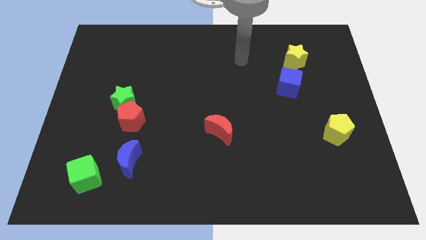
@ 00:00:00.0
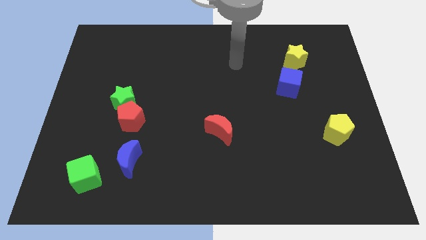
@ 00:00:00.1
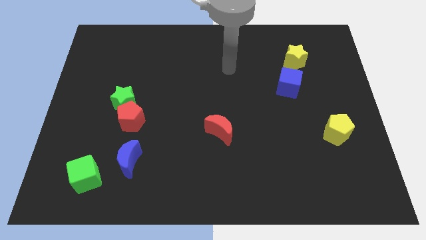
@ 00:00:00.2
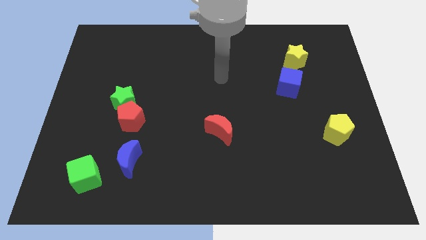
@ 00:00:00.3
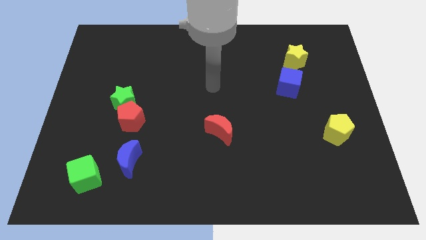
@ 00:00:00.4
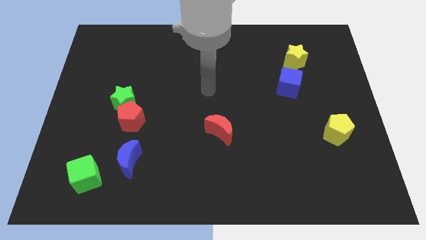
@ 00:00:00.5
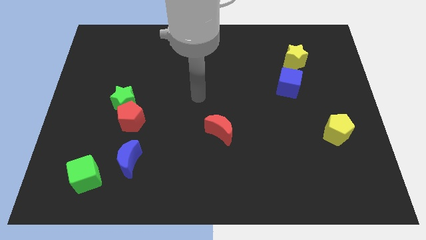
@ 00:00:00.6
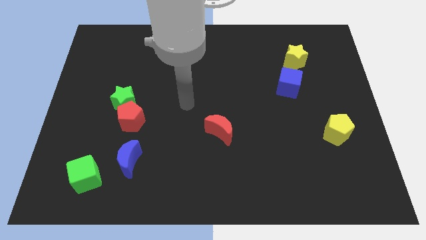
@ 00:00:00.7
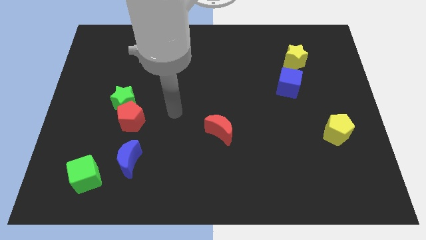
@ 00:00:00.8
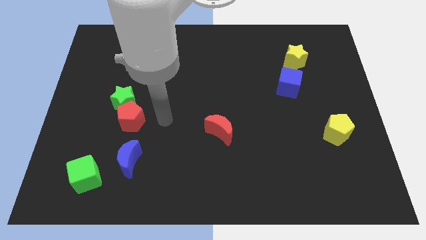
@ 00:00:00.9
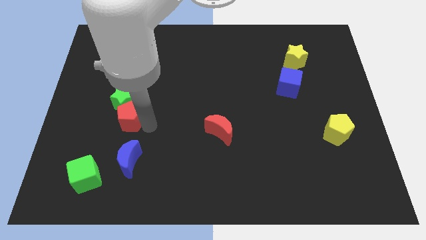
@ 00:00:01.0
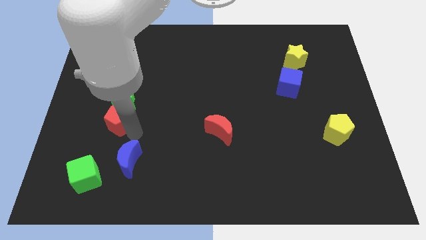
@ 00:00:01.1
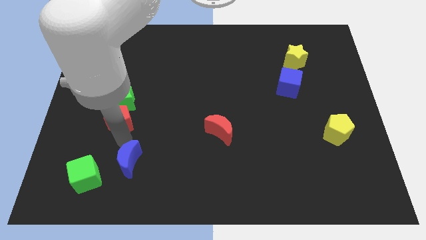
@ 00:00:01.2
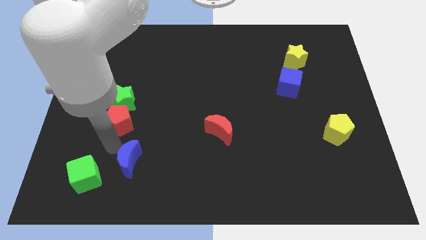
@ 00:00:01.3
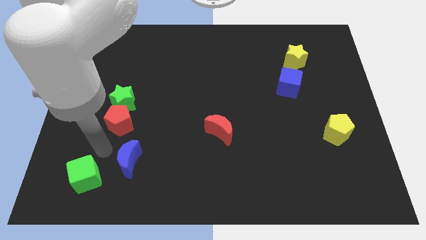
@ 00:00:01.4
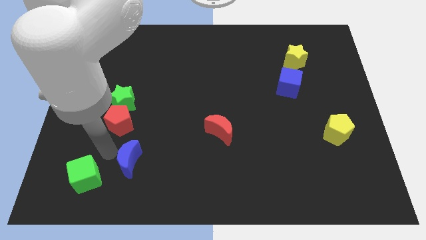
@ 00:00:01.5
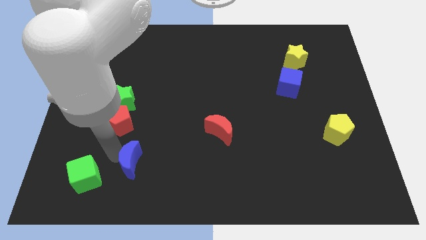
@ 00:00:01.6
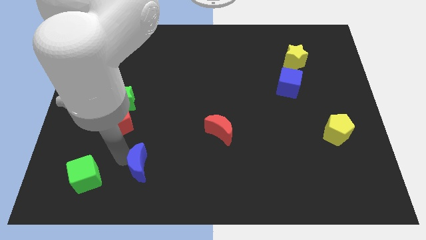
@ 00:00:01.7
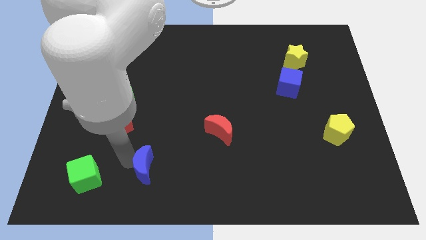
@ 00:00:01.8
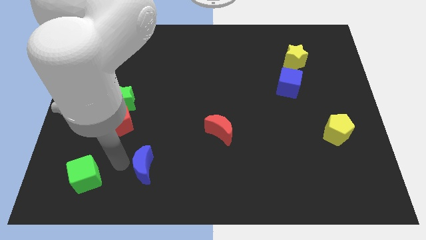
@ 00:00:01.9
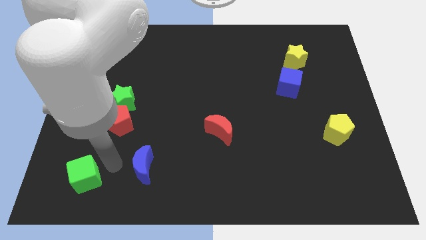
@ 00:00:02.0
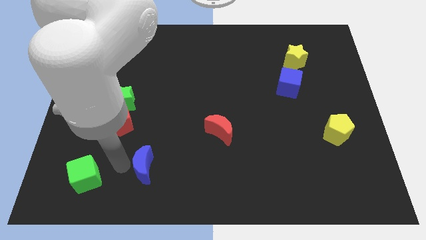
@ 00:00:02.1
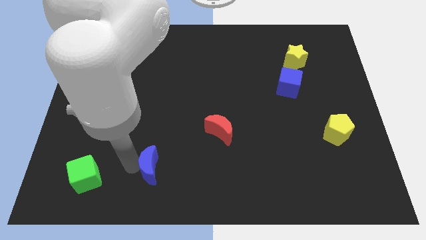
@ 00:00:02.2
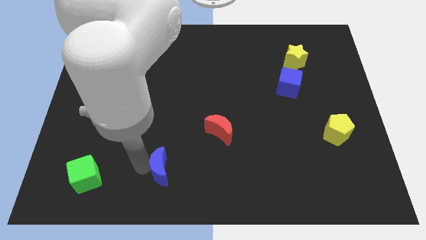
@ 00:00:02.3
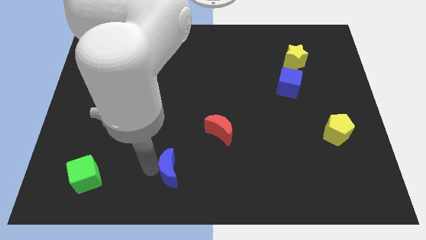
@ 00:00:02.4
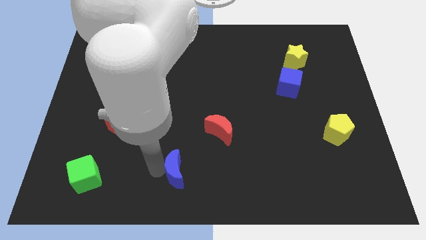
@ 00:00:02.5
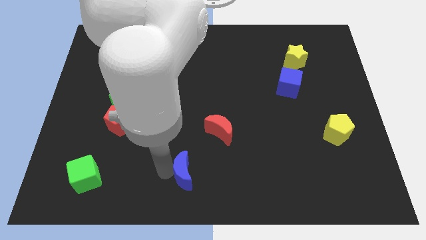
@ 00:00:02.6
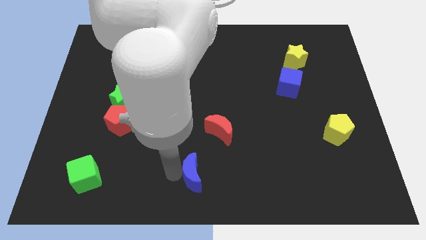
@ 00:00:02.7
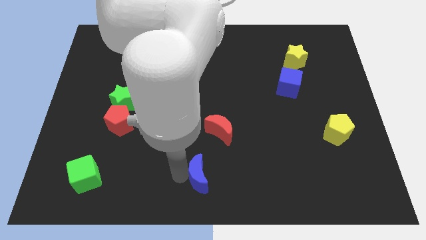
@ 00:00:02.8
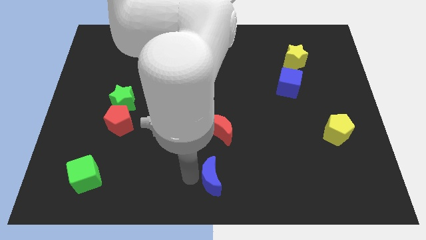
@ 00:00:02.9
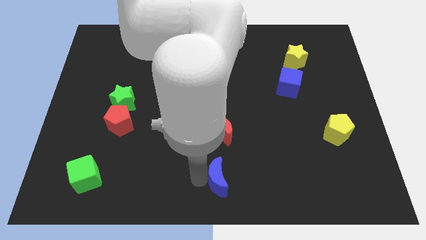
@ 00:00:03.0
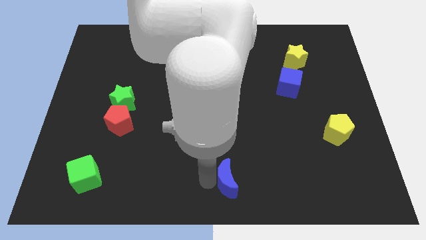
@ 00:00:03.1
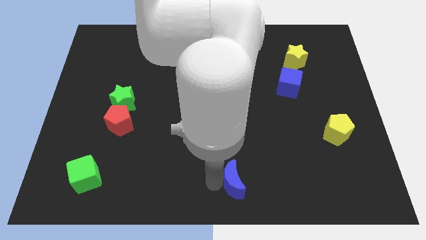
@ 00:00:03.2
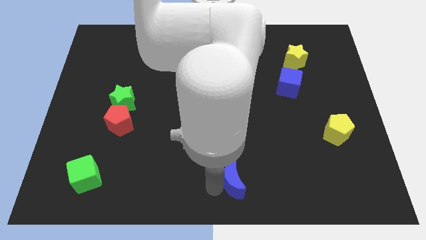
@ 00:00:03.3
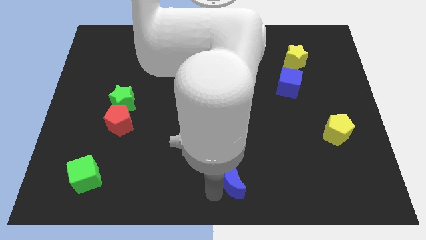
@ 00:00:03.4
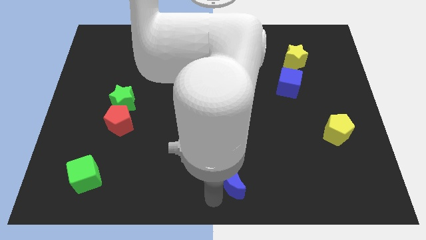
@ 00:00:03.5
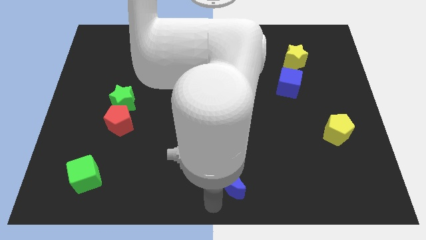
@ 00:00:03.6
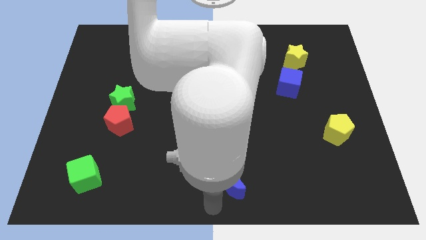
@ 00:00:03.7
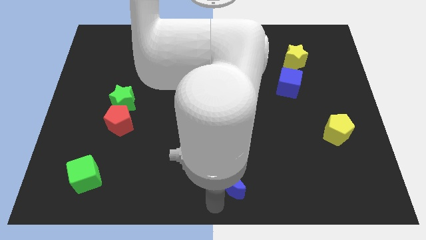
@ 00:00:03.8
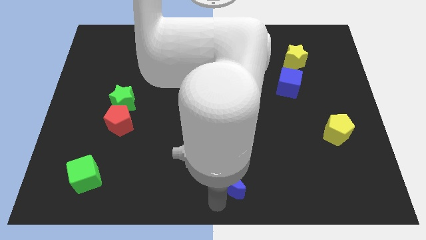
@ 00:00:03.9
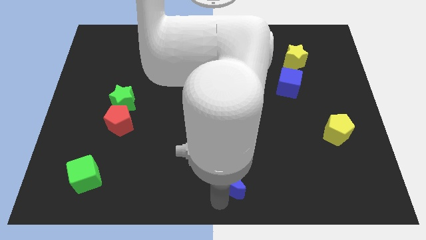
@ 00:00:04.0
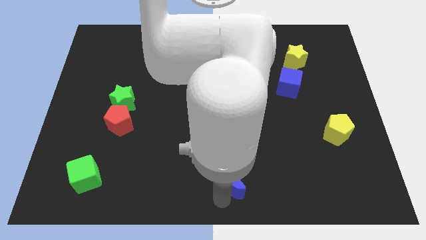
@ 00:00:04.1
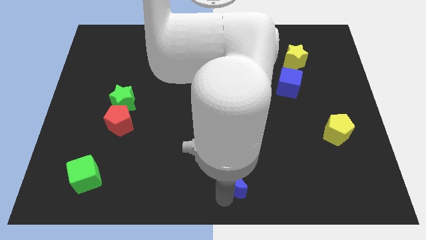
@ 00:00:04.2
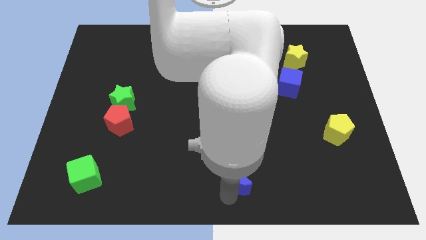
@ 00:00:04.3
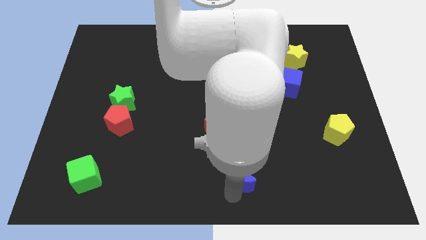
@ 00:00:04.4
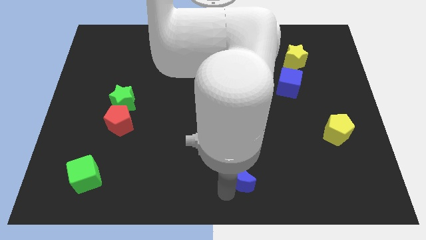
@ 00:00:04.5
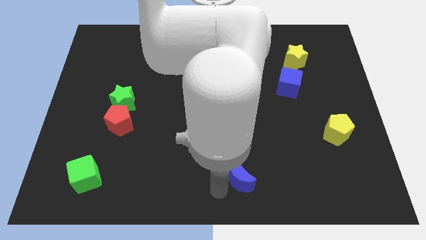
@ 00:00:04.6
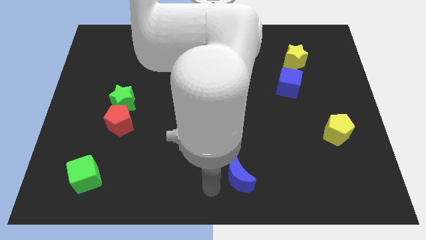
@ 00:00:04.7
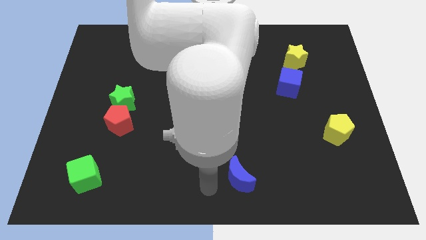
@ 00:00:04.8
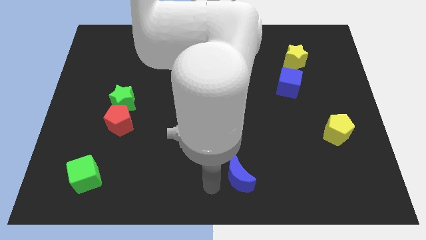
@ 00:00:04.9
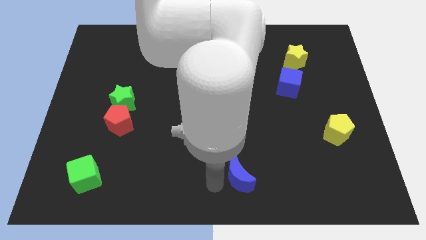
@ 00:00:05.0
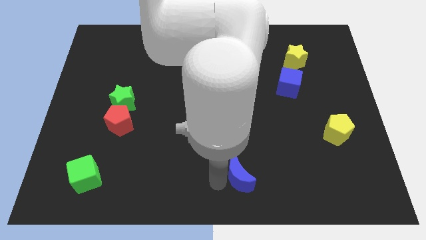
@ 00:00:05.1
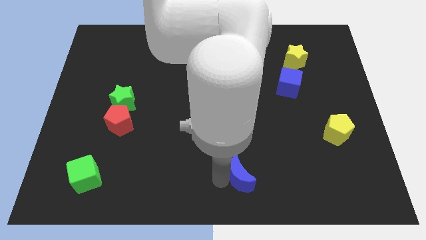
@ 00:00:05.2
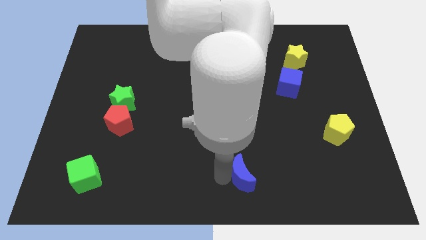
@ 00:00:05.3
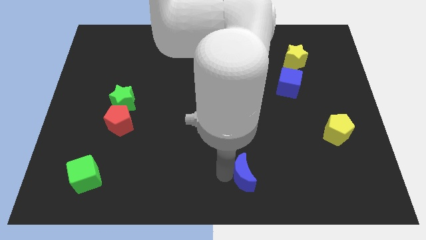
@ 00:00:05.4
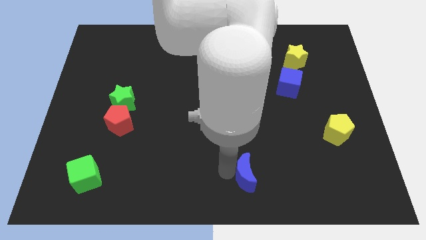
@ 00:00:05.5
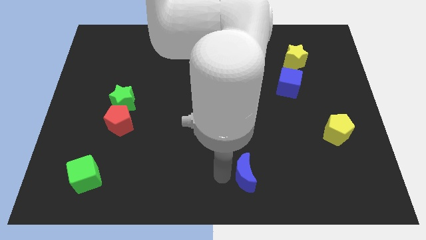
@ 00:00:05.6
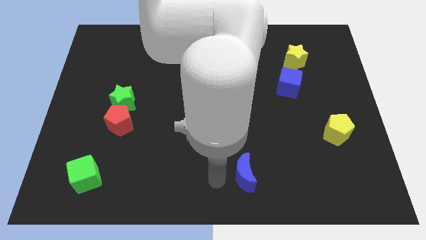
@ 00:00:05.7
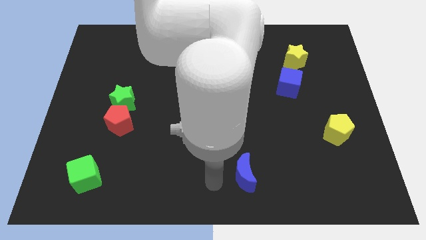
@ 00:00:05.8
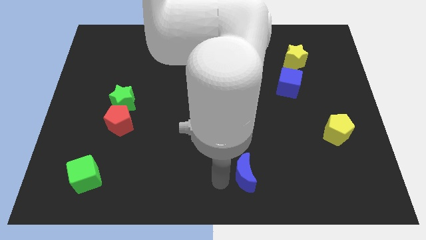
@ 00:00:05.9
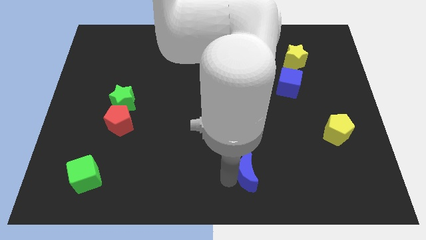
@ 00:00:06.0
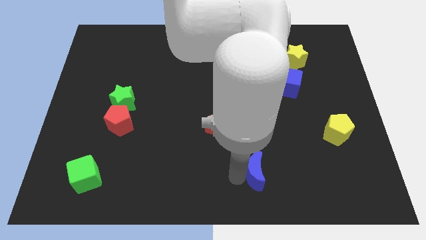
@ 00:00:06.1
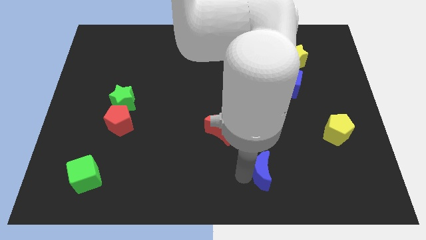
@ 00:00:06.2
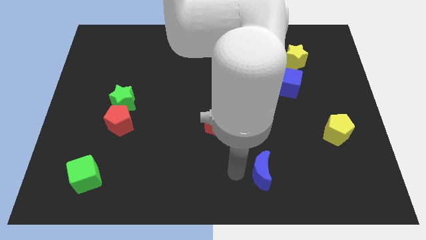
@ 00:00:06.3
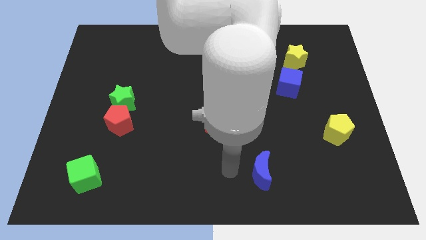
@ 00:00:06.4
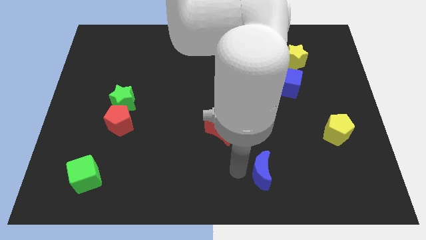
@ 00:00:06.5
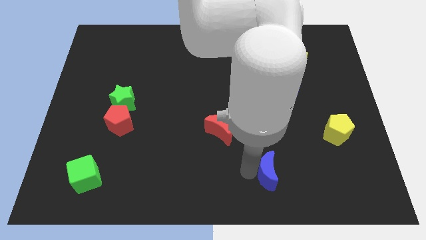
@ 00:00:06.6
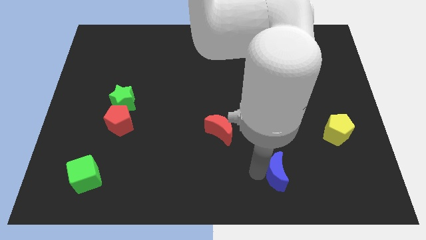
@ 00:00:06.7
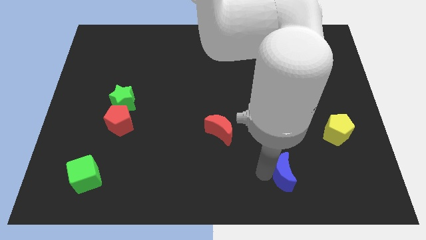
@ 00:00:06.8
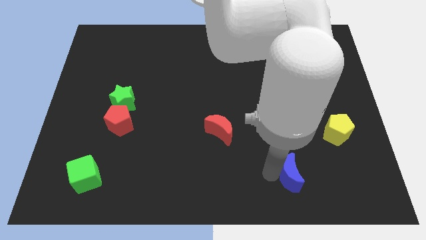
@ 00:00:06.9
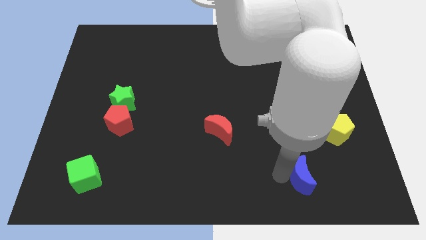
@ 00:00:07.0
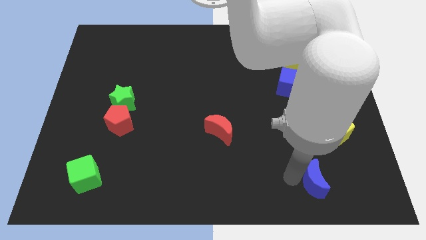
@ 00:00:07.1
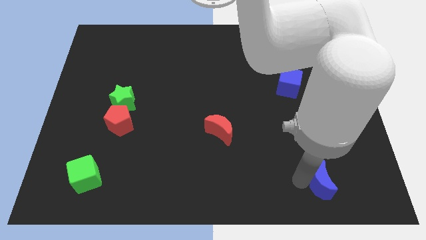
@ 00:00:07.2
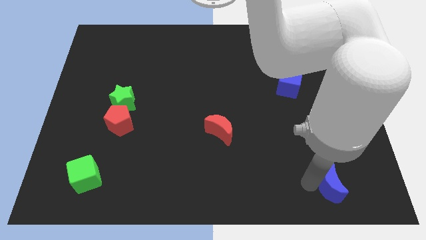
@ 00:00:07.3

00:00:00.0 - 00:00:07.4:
put the blue moon to the bottom of the yellow pentagon
